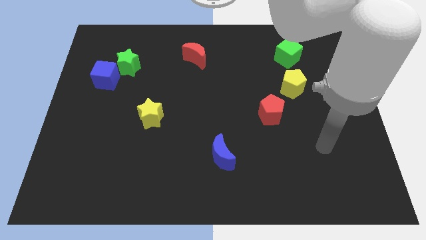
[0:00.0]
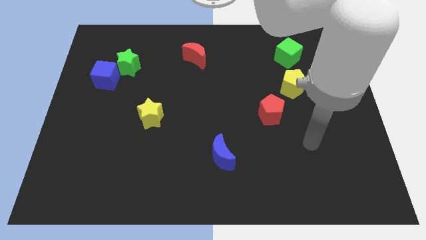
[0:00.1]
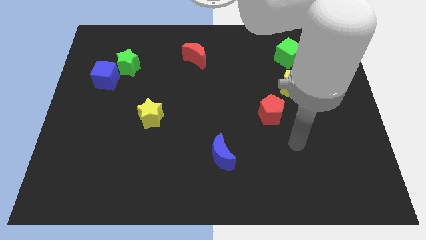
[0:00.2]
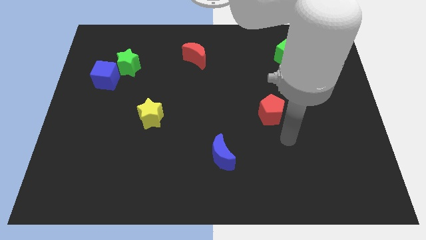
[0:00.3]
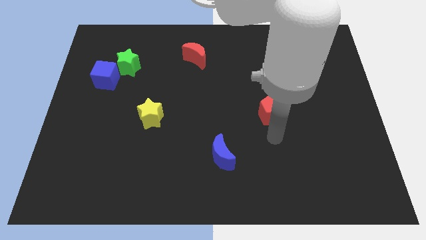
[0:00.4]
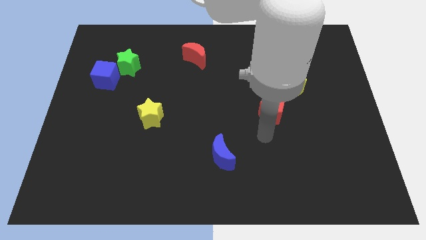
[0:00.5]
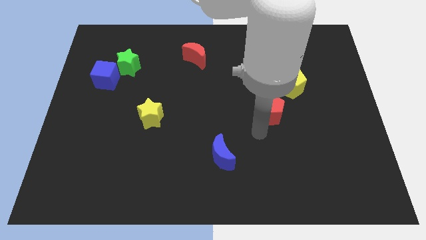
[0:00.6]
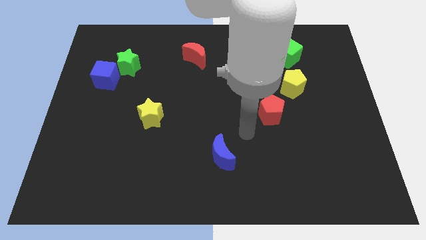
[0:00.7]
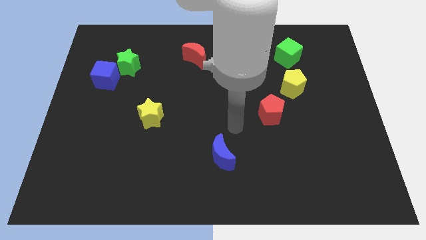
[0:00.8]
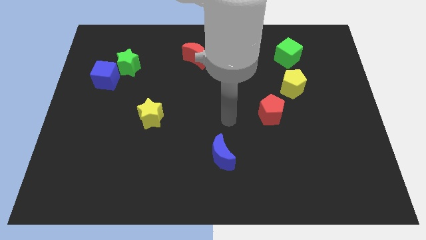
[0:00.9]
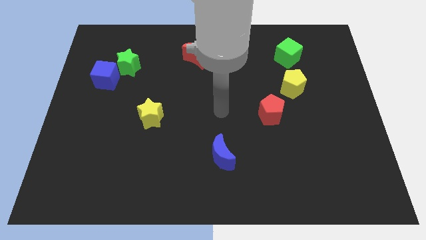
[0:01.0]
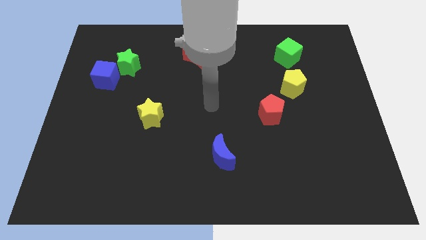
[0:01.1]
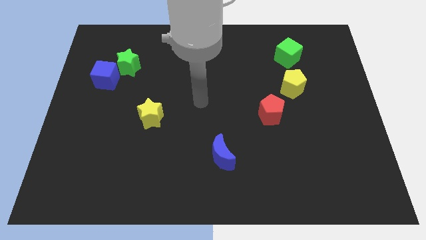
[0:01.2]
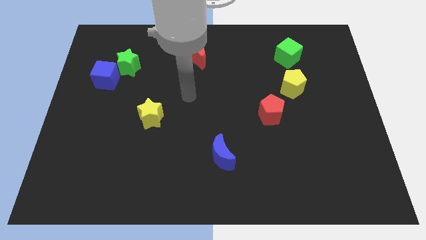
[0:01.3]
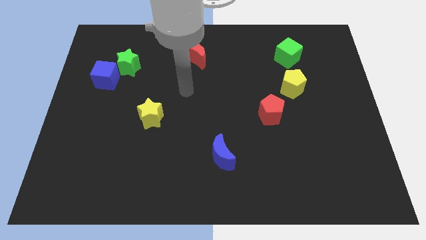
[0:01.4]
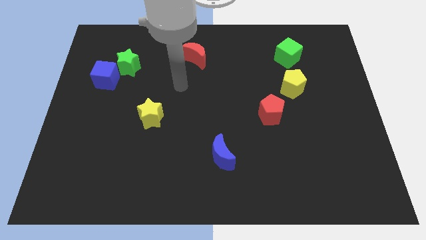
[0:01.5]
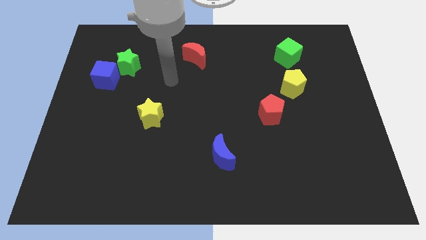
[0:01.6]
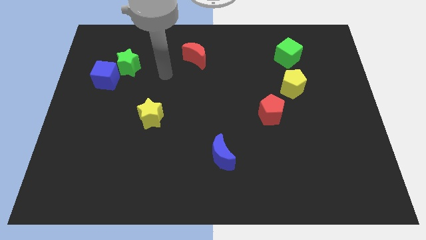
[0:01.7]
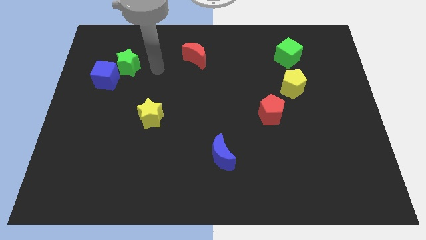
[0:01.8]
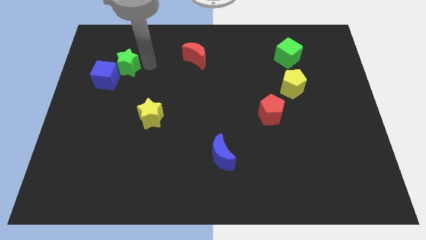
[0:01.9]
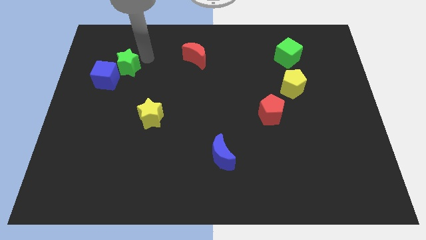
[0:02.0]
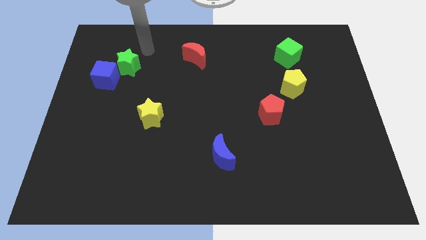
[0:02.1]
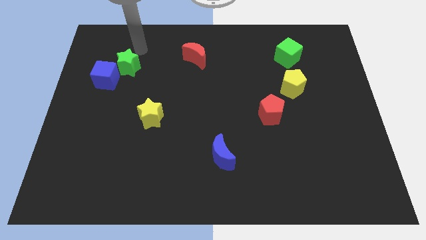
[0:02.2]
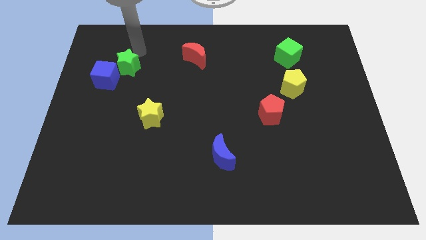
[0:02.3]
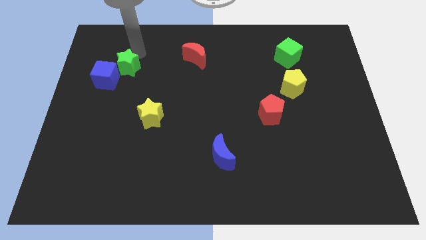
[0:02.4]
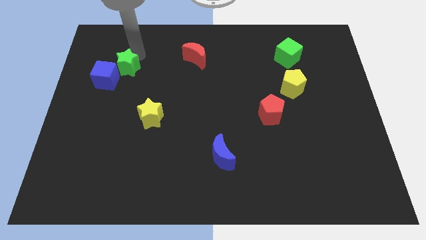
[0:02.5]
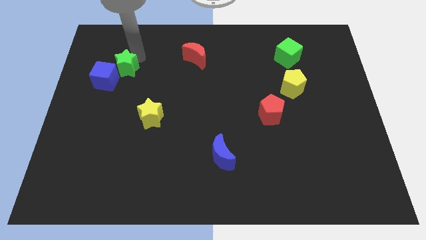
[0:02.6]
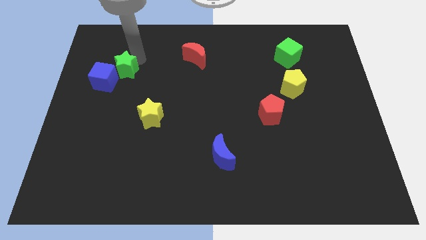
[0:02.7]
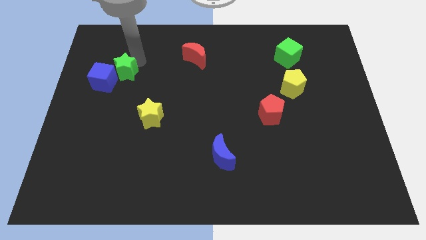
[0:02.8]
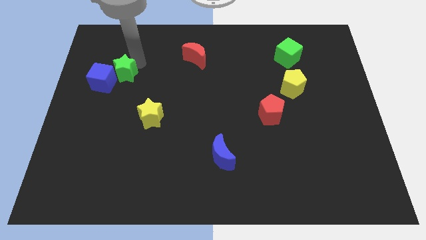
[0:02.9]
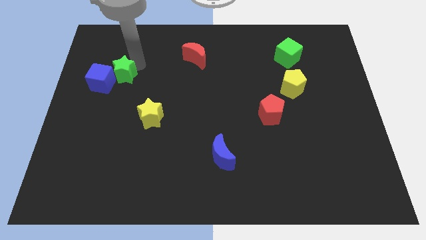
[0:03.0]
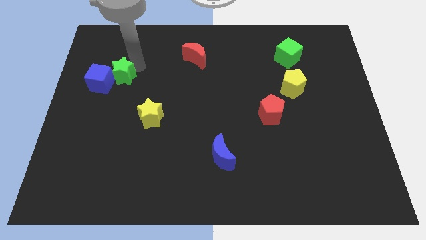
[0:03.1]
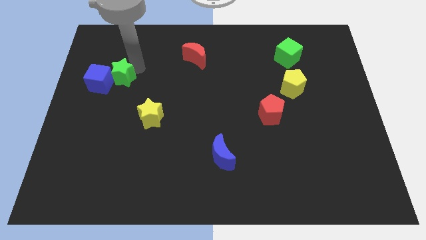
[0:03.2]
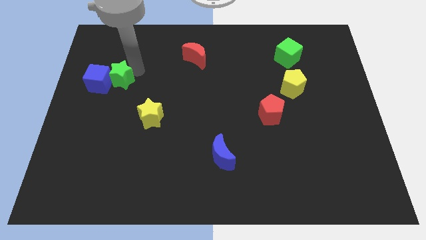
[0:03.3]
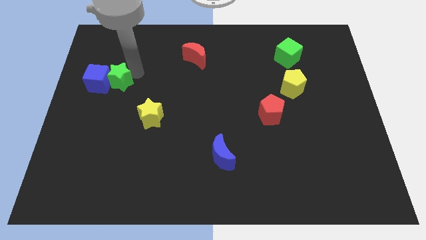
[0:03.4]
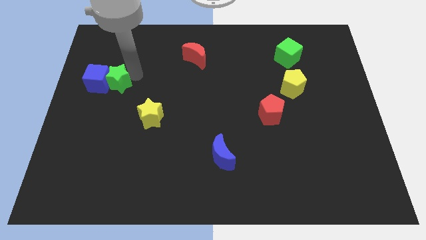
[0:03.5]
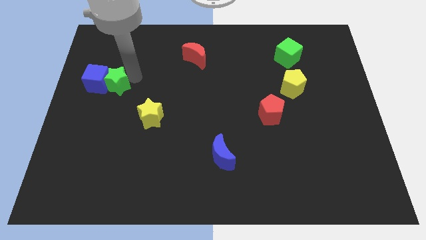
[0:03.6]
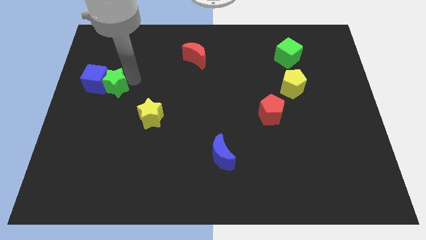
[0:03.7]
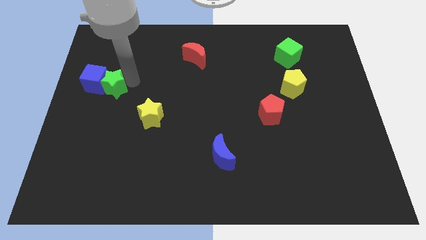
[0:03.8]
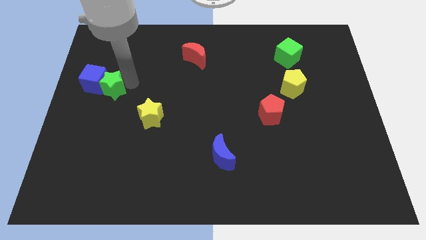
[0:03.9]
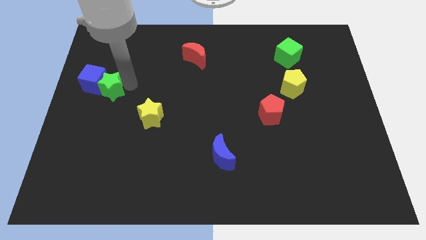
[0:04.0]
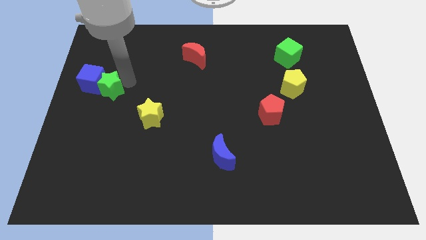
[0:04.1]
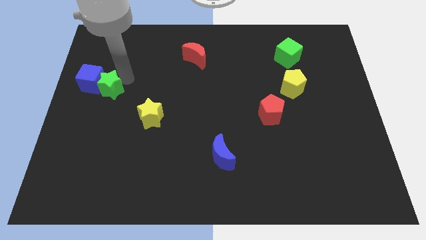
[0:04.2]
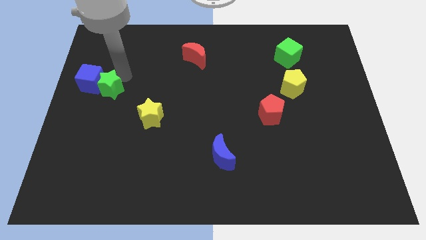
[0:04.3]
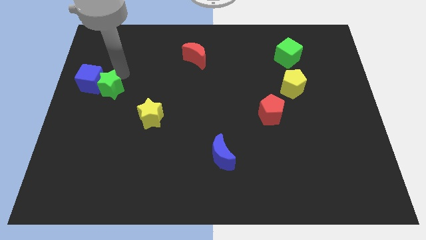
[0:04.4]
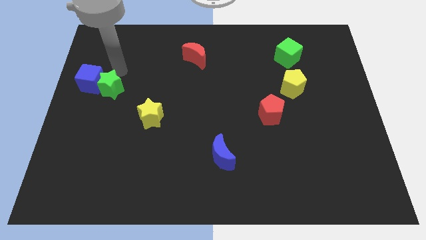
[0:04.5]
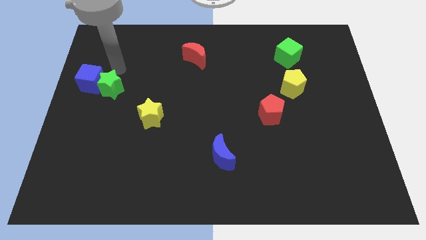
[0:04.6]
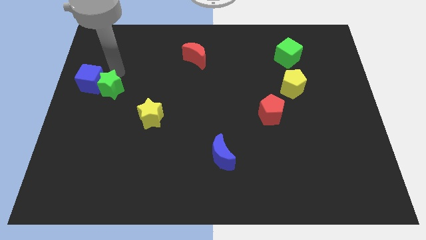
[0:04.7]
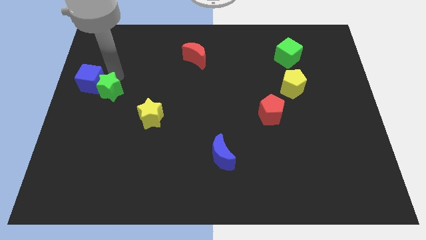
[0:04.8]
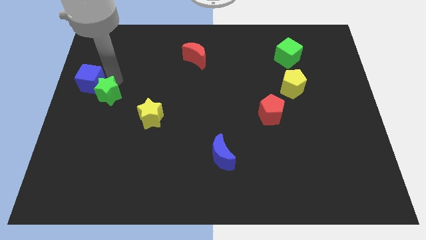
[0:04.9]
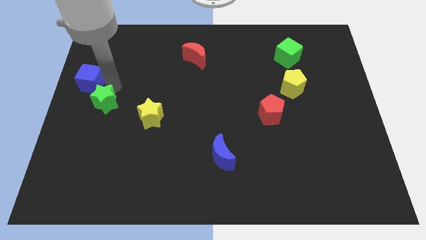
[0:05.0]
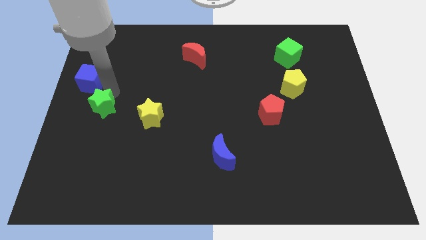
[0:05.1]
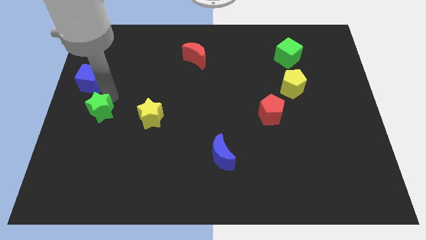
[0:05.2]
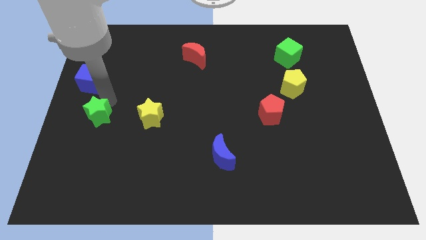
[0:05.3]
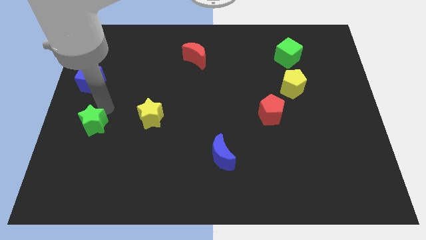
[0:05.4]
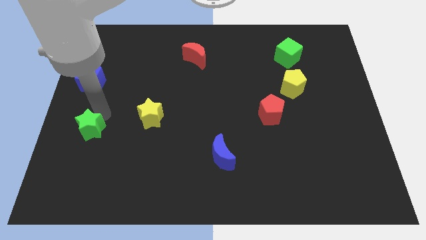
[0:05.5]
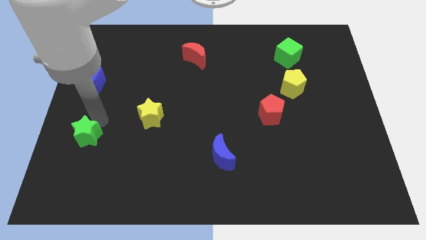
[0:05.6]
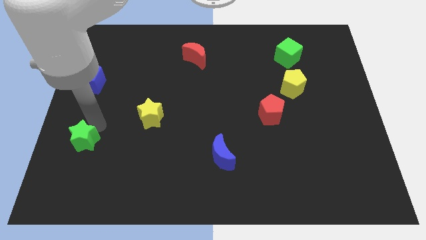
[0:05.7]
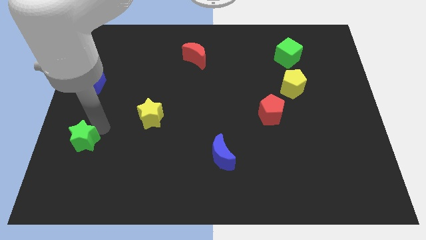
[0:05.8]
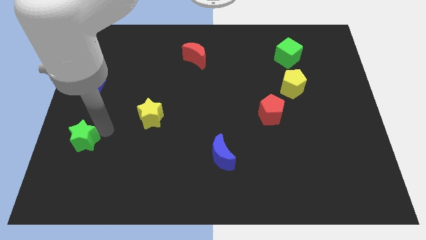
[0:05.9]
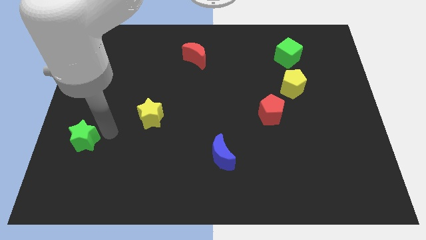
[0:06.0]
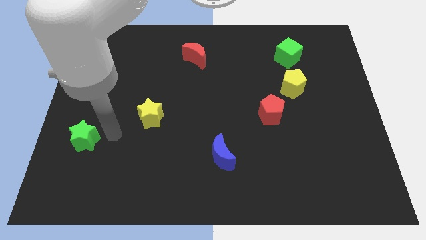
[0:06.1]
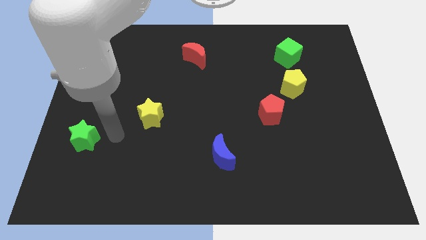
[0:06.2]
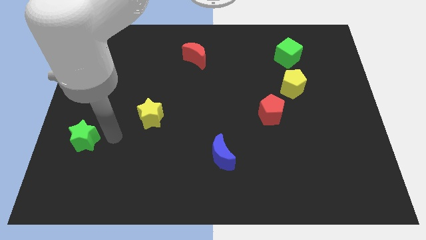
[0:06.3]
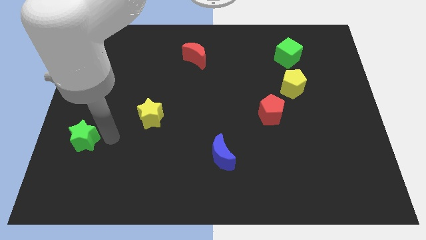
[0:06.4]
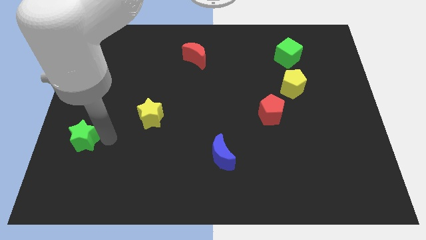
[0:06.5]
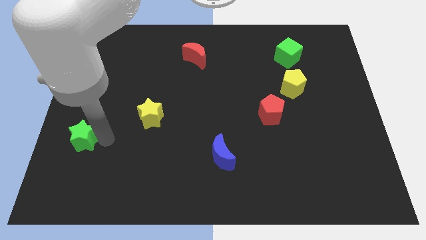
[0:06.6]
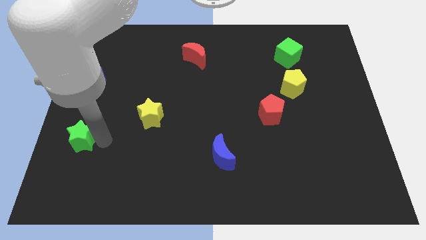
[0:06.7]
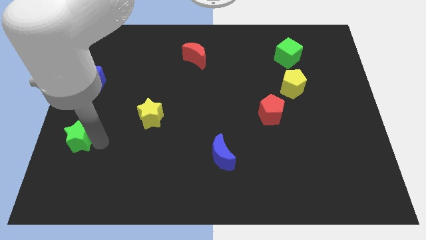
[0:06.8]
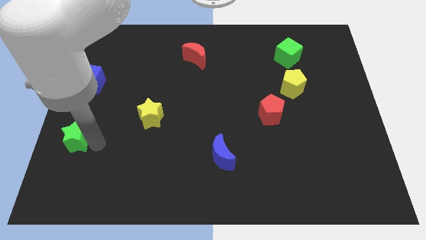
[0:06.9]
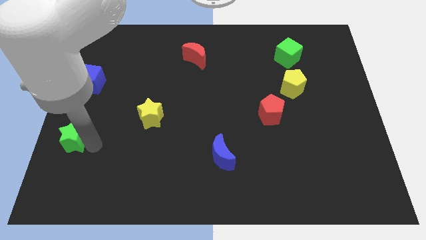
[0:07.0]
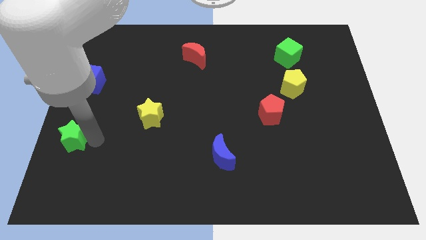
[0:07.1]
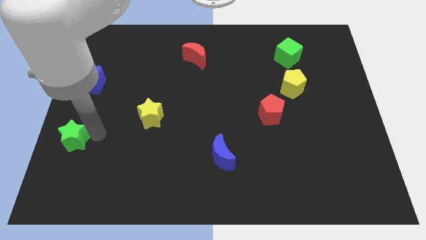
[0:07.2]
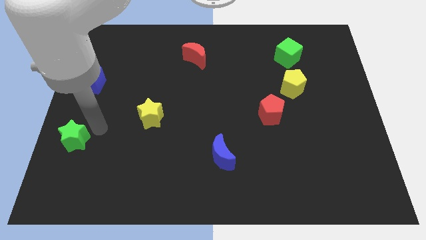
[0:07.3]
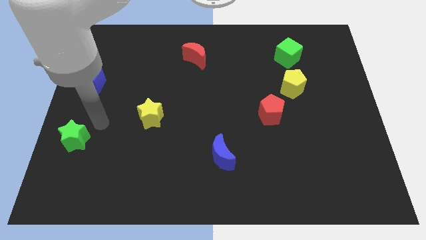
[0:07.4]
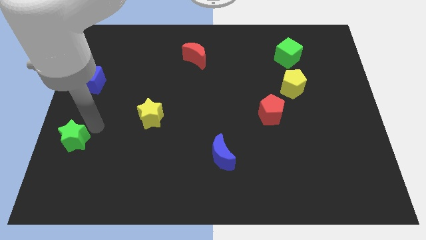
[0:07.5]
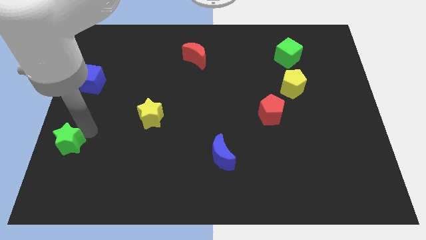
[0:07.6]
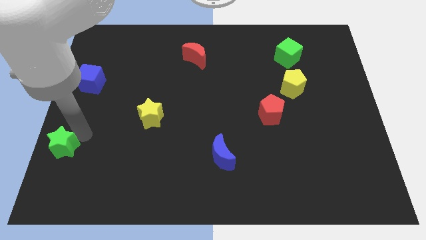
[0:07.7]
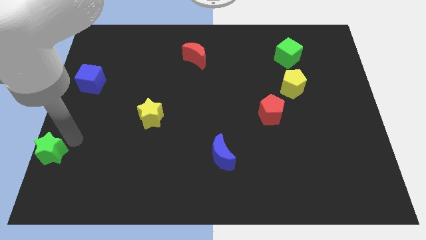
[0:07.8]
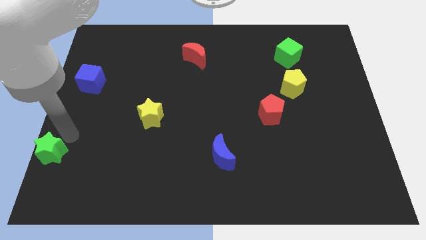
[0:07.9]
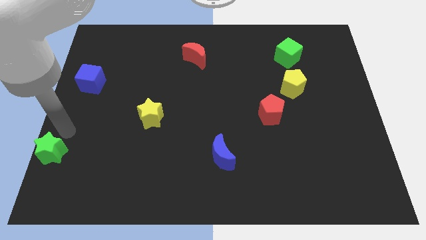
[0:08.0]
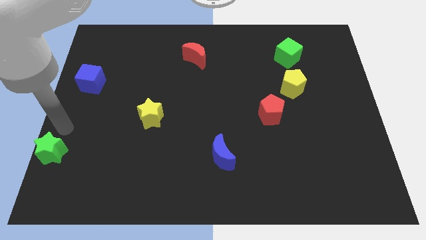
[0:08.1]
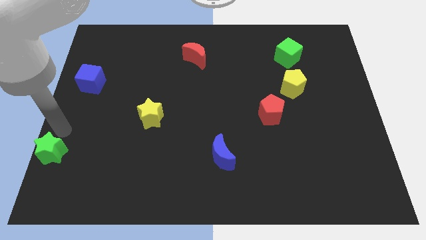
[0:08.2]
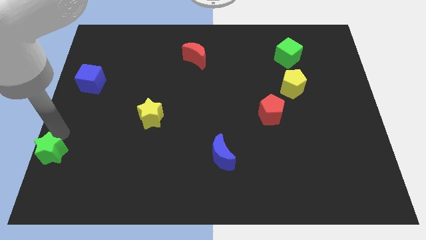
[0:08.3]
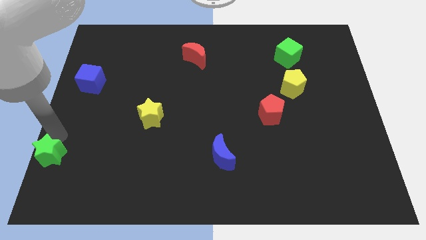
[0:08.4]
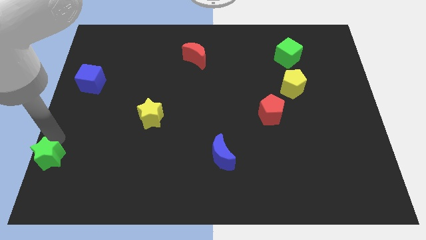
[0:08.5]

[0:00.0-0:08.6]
slide the green star to the lower left corner
